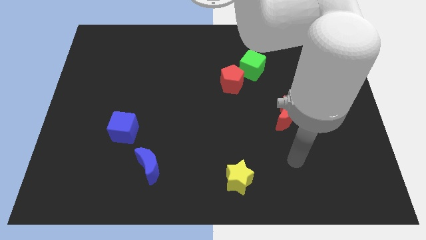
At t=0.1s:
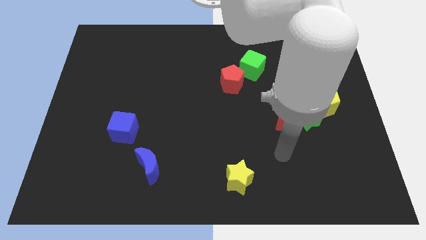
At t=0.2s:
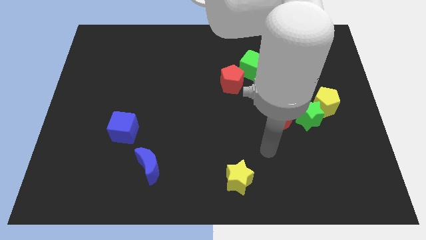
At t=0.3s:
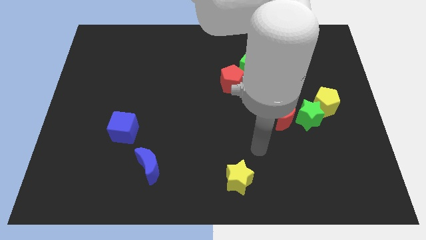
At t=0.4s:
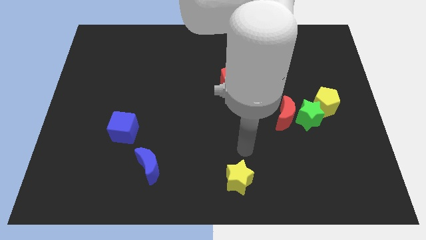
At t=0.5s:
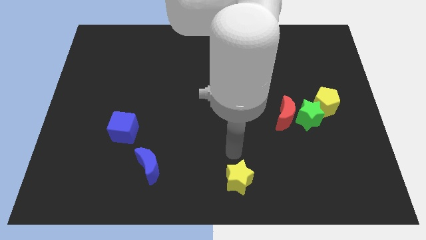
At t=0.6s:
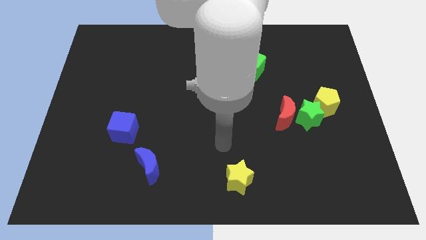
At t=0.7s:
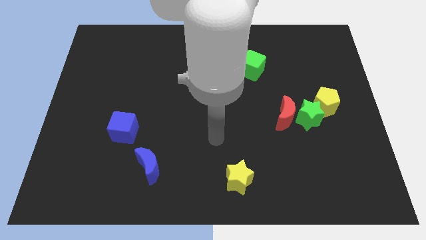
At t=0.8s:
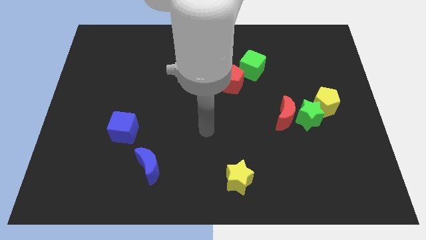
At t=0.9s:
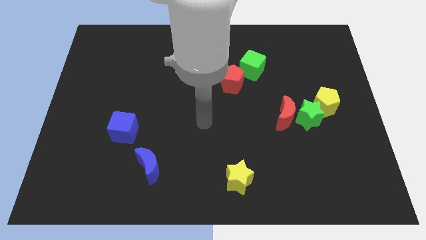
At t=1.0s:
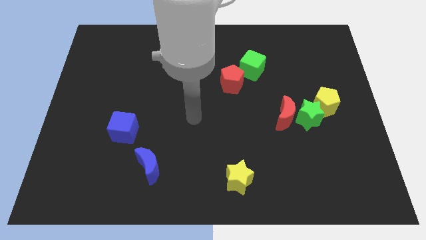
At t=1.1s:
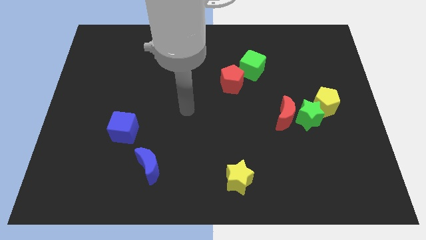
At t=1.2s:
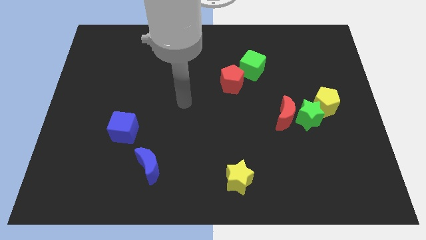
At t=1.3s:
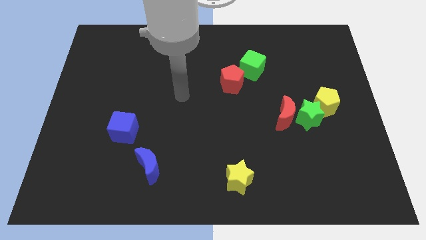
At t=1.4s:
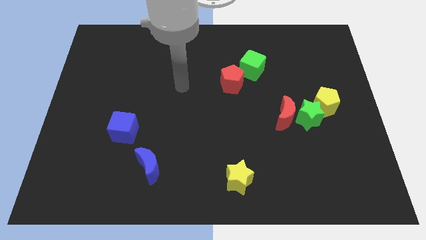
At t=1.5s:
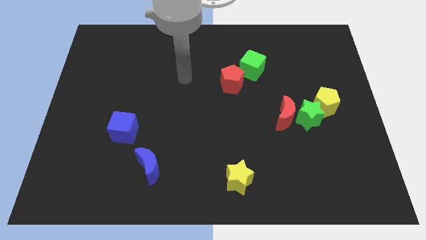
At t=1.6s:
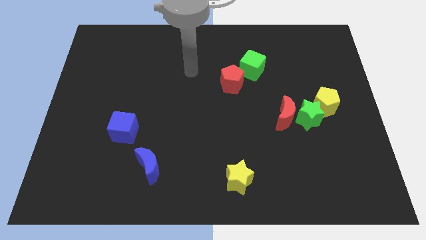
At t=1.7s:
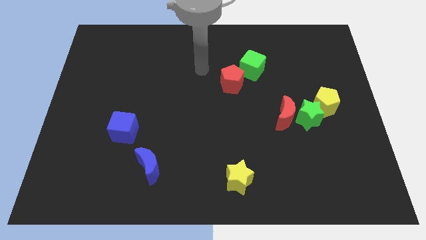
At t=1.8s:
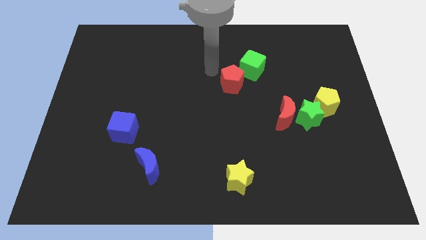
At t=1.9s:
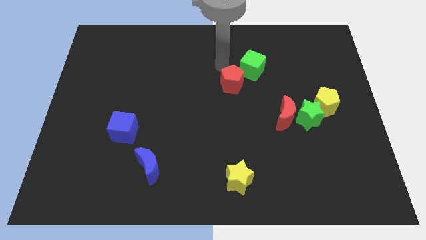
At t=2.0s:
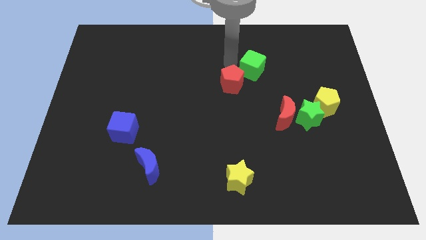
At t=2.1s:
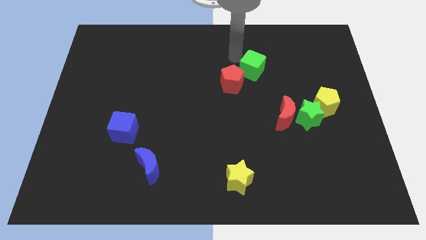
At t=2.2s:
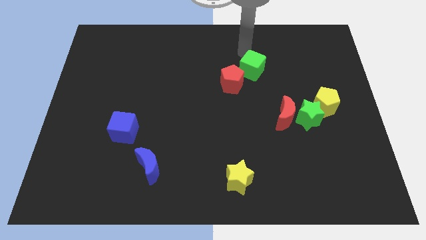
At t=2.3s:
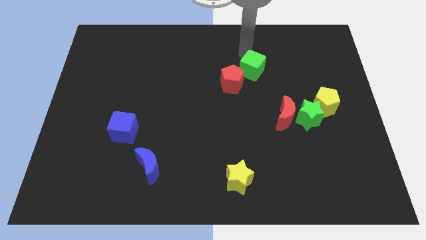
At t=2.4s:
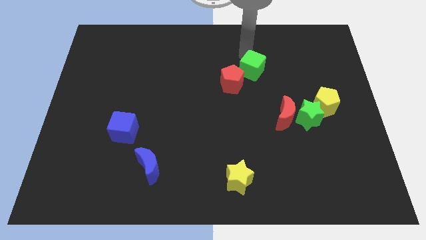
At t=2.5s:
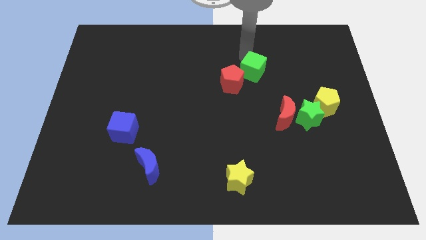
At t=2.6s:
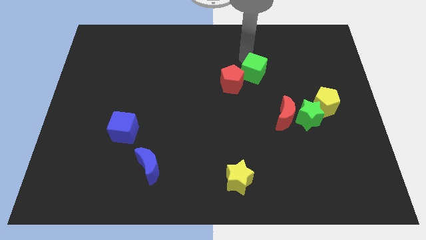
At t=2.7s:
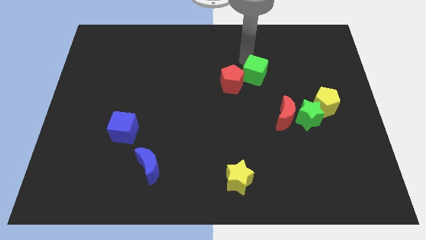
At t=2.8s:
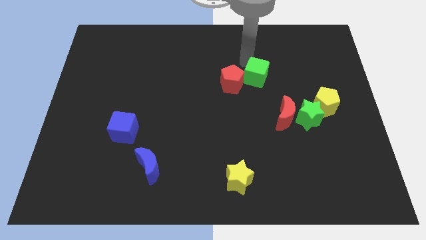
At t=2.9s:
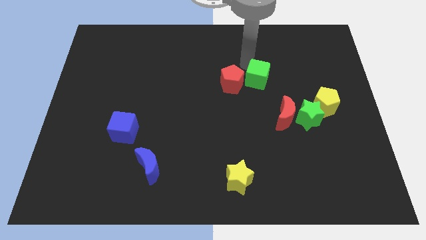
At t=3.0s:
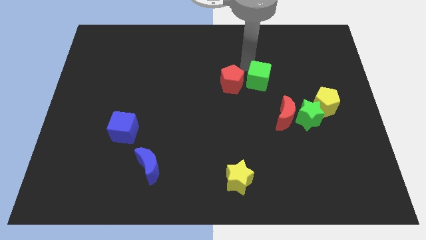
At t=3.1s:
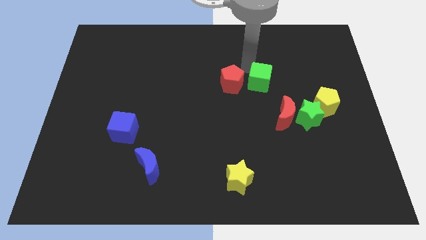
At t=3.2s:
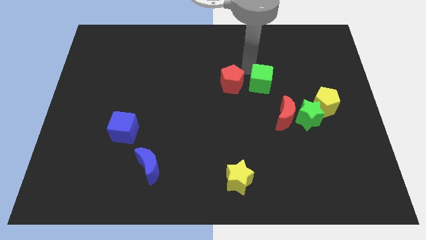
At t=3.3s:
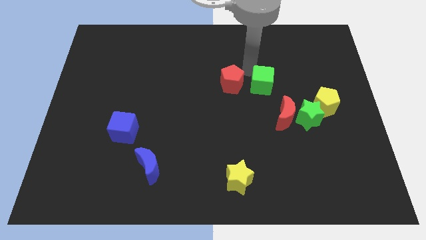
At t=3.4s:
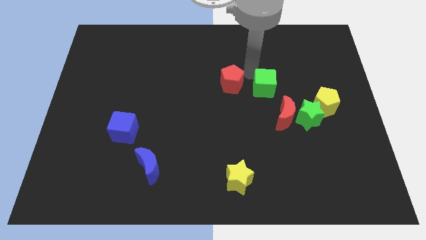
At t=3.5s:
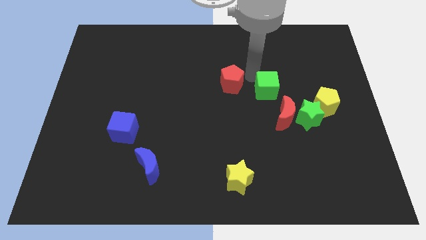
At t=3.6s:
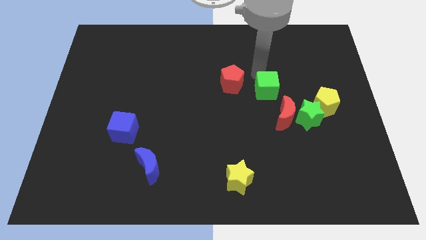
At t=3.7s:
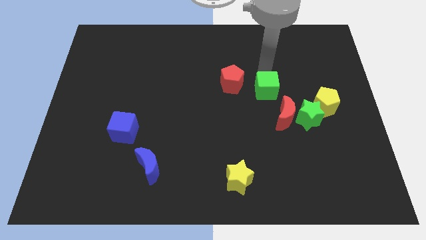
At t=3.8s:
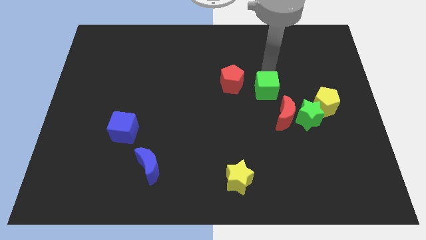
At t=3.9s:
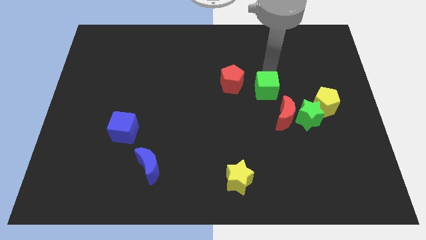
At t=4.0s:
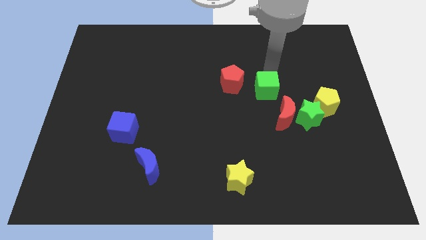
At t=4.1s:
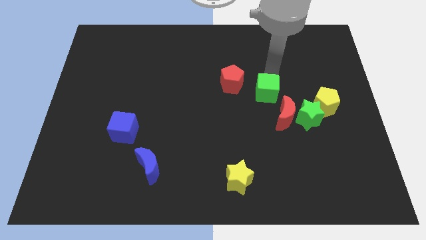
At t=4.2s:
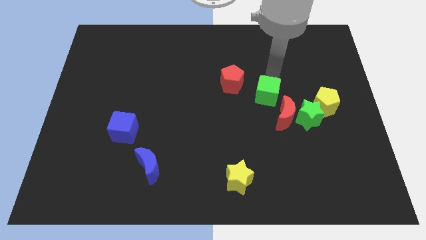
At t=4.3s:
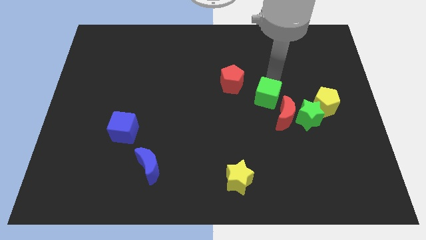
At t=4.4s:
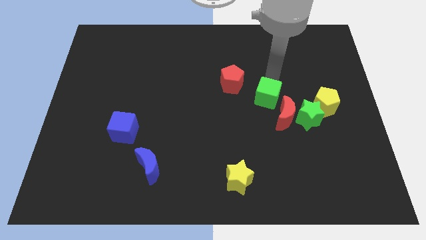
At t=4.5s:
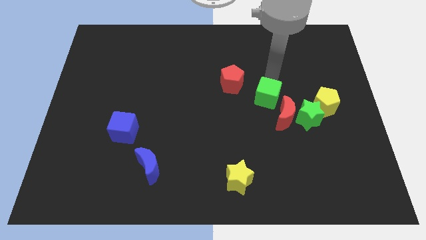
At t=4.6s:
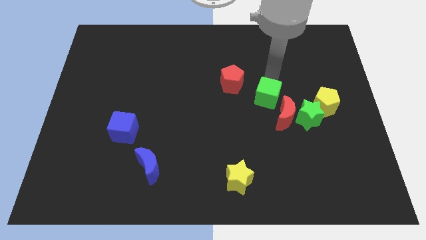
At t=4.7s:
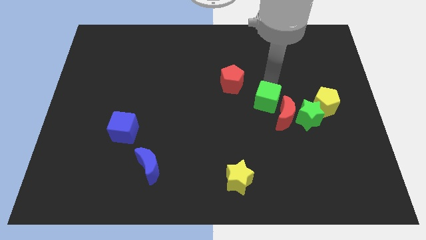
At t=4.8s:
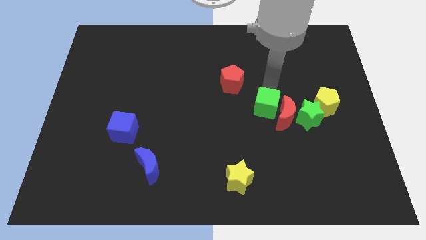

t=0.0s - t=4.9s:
put the green cube to the left of the green star

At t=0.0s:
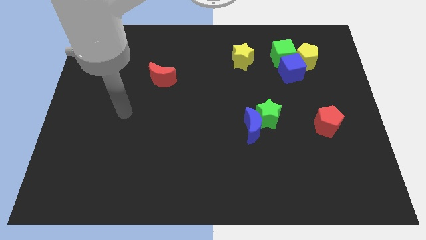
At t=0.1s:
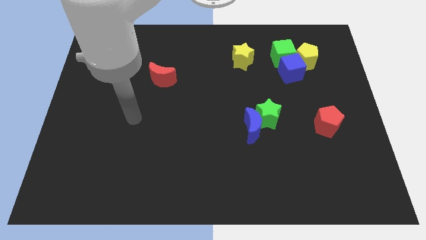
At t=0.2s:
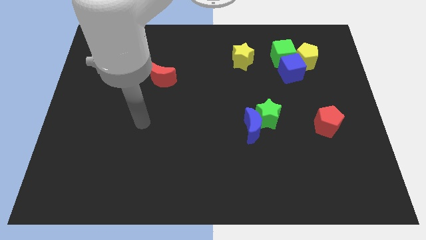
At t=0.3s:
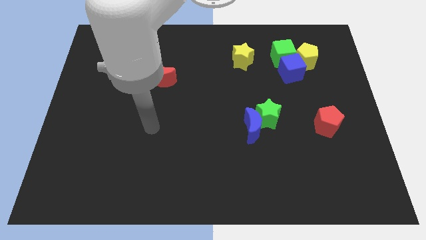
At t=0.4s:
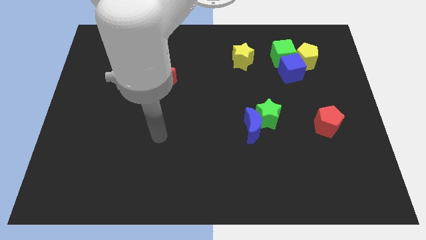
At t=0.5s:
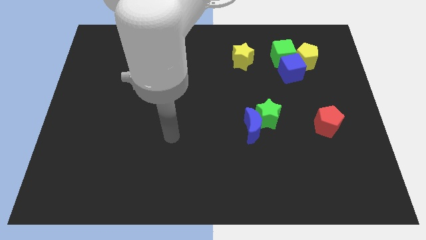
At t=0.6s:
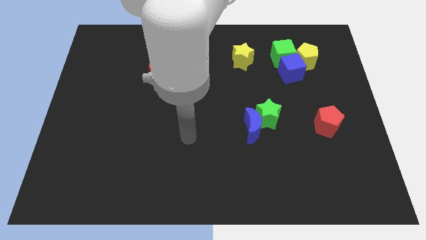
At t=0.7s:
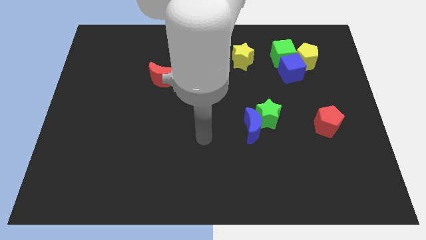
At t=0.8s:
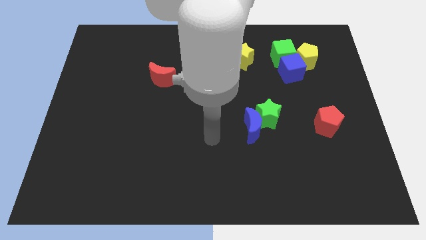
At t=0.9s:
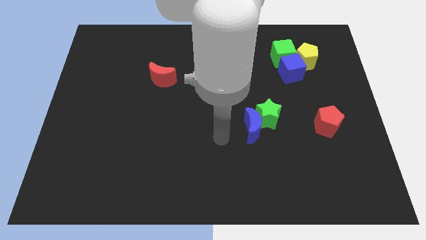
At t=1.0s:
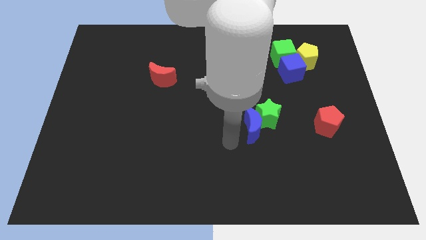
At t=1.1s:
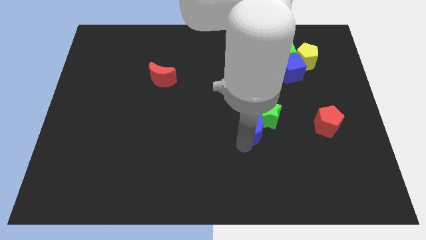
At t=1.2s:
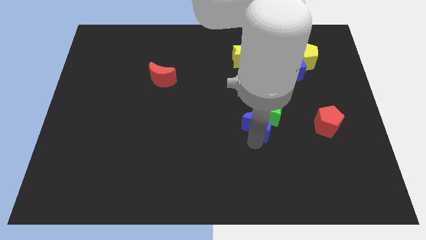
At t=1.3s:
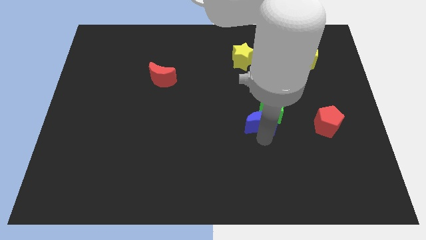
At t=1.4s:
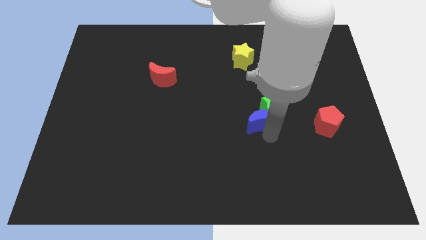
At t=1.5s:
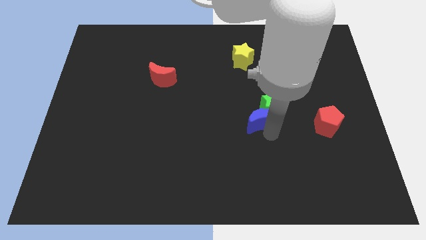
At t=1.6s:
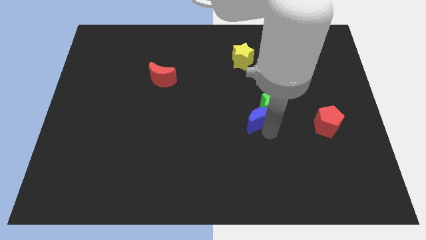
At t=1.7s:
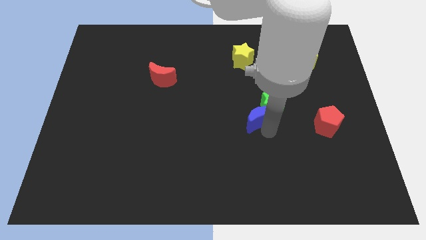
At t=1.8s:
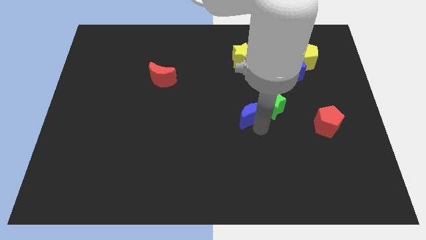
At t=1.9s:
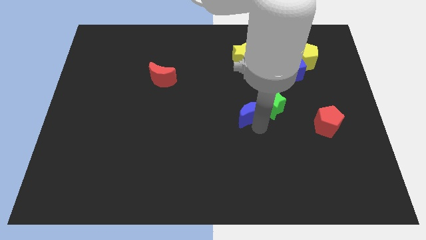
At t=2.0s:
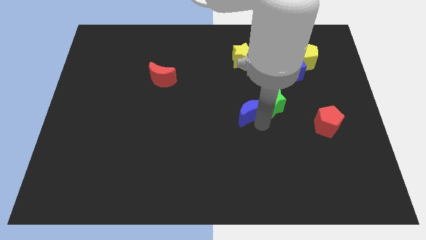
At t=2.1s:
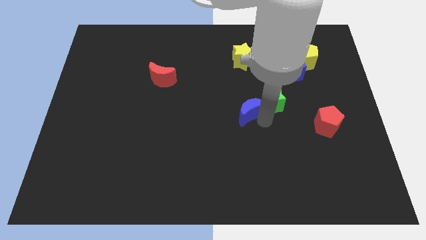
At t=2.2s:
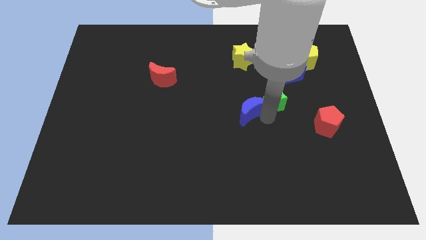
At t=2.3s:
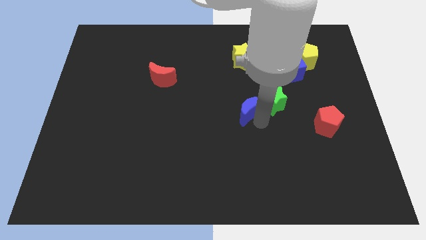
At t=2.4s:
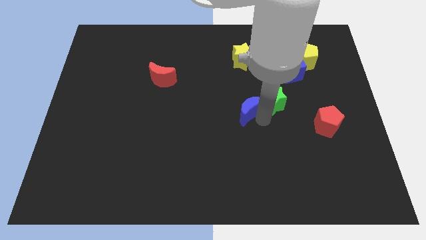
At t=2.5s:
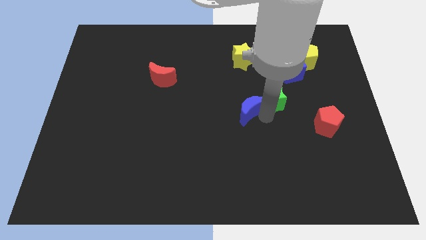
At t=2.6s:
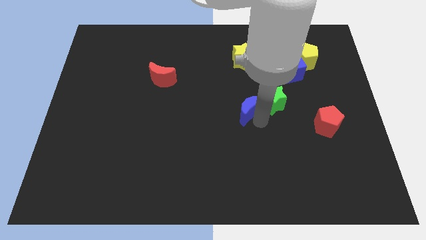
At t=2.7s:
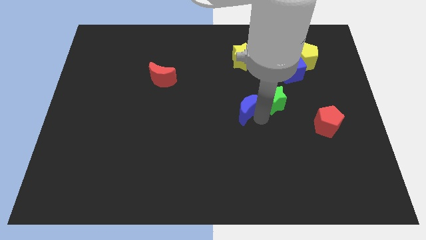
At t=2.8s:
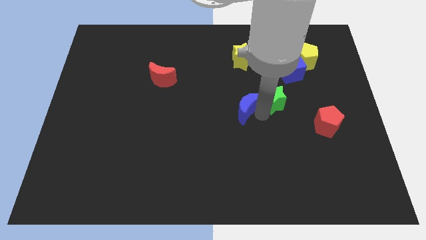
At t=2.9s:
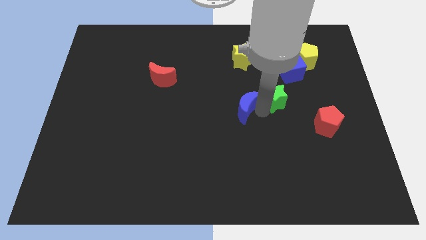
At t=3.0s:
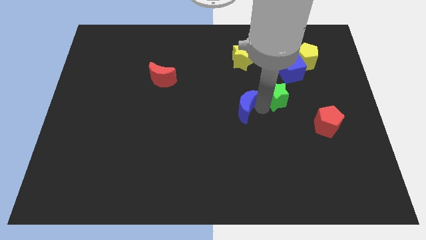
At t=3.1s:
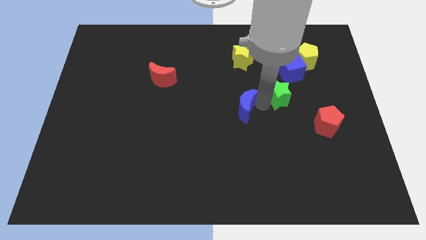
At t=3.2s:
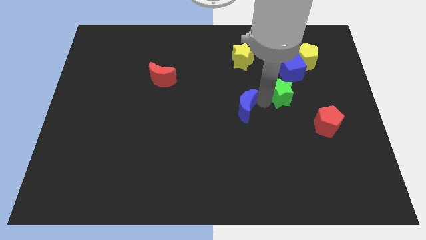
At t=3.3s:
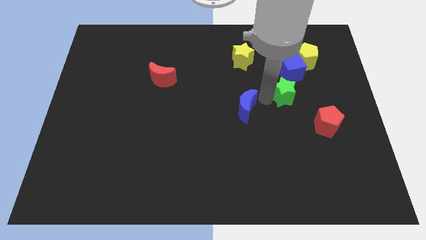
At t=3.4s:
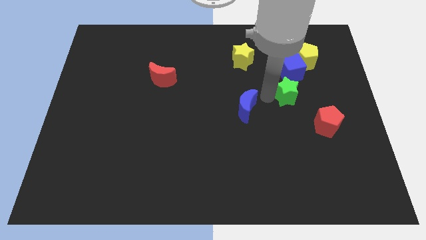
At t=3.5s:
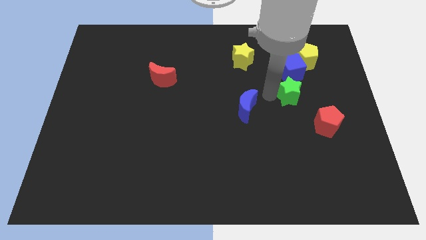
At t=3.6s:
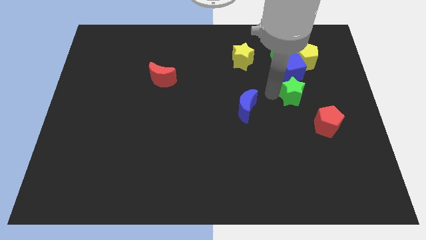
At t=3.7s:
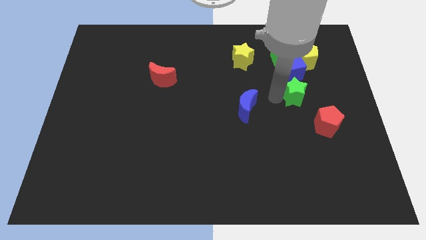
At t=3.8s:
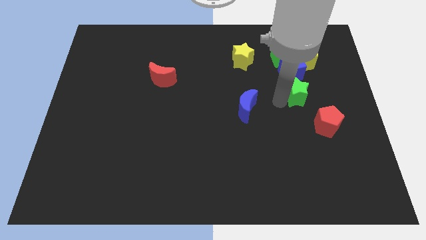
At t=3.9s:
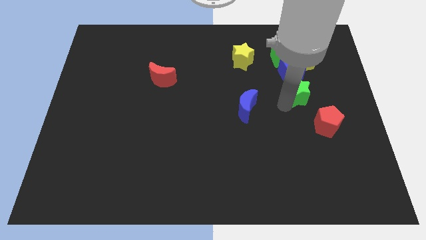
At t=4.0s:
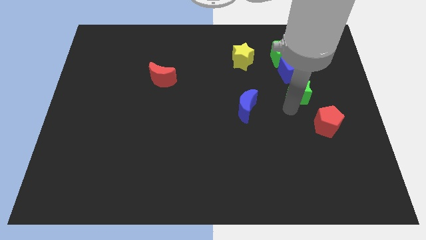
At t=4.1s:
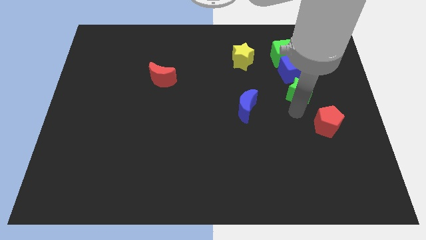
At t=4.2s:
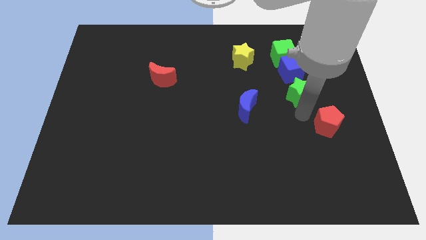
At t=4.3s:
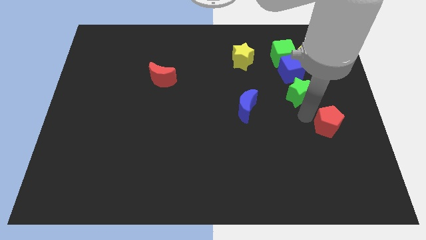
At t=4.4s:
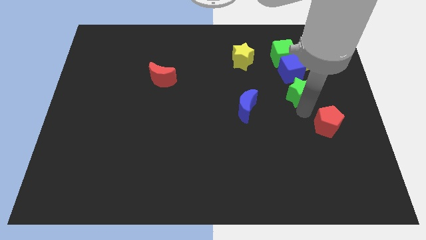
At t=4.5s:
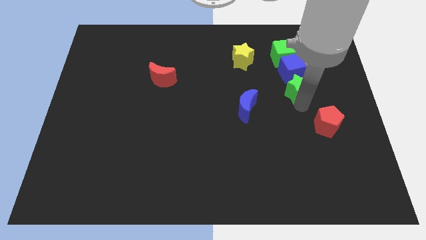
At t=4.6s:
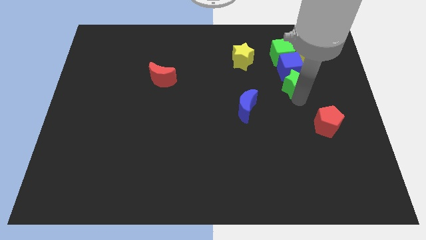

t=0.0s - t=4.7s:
push the green star to the bottom left side of the yellow pentagon
